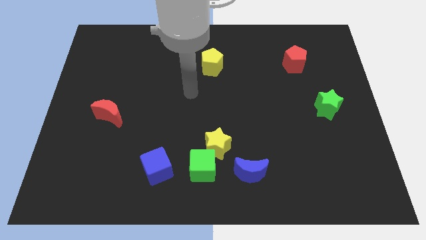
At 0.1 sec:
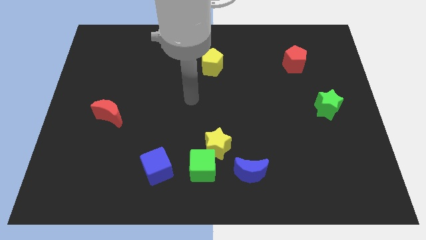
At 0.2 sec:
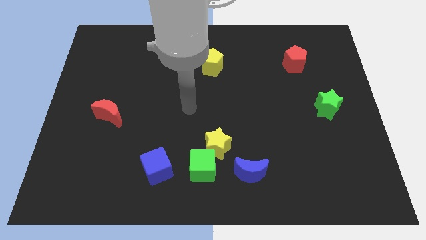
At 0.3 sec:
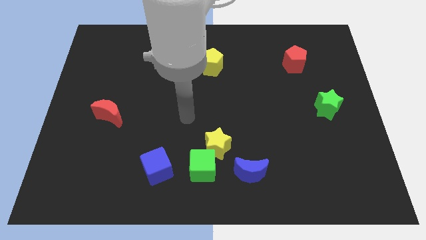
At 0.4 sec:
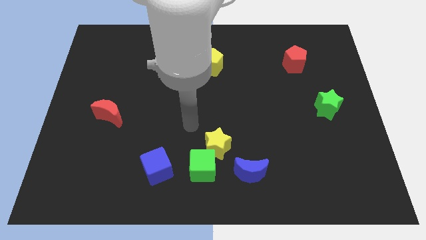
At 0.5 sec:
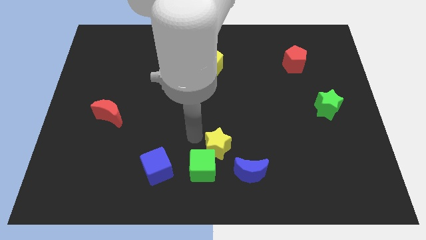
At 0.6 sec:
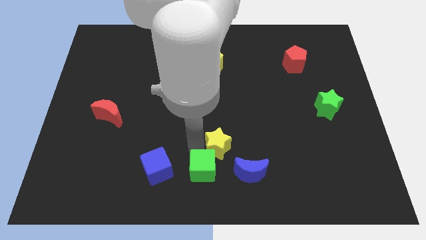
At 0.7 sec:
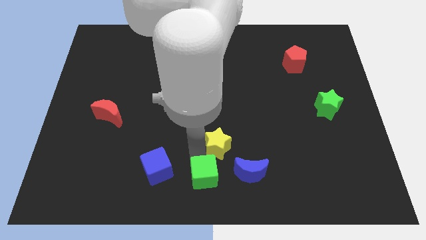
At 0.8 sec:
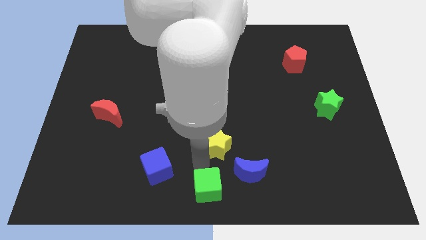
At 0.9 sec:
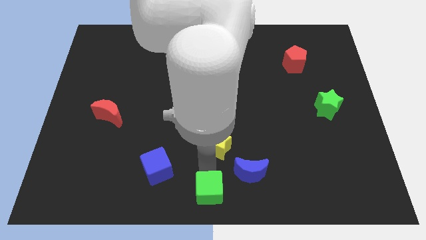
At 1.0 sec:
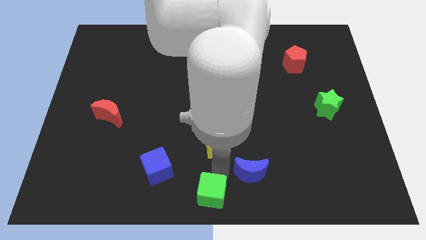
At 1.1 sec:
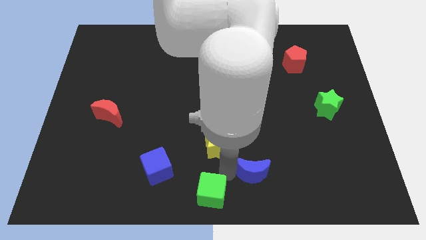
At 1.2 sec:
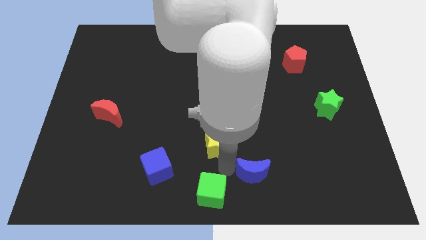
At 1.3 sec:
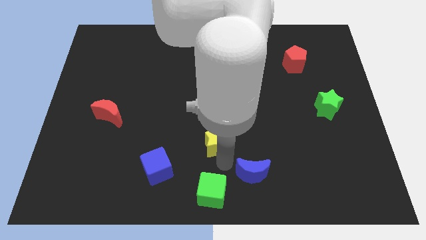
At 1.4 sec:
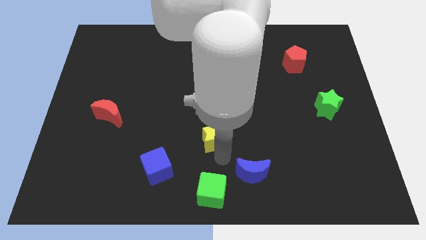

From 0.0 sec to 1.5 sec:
pull the yellow star apart from the green cube and blue moon

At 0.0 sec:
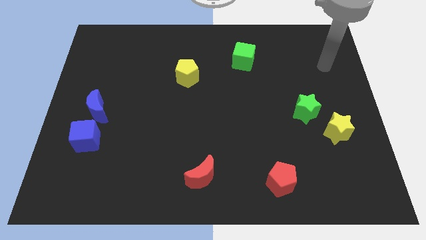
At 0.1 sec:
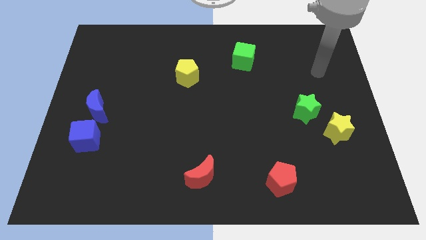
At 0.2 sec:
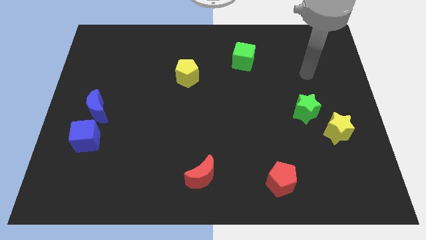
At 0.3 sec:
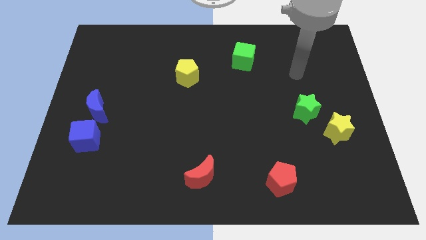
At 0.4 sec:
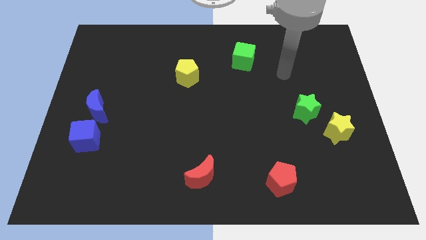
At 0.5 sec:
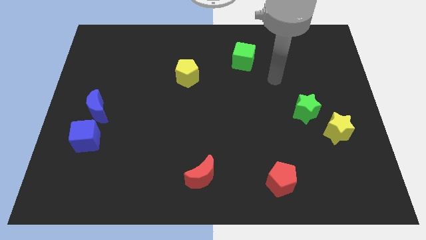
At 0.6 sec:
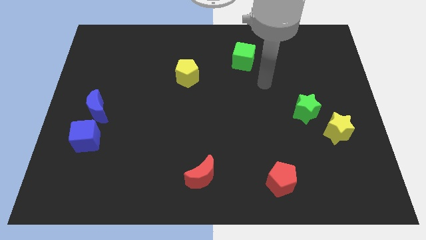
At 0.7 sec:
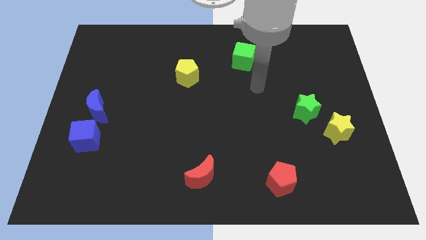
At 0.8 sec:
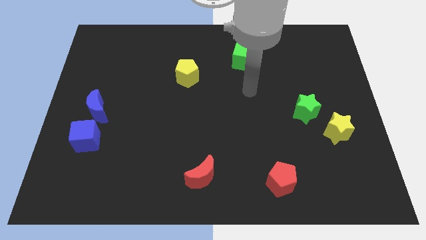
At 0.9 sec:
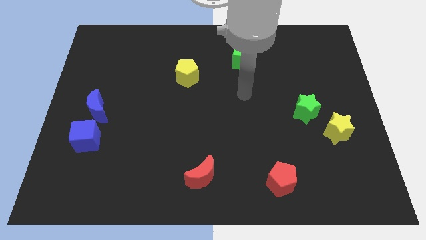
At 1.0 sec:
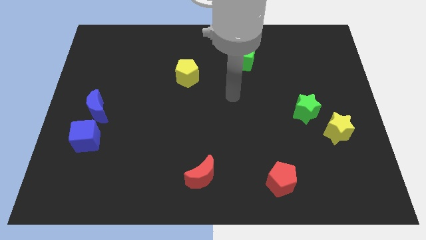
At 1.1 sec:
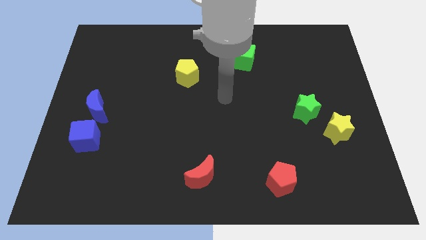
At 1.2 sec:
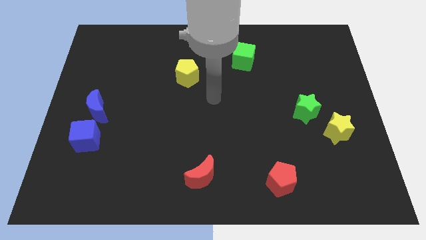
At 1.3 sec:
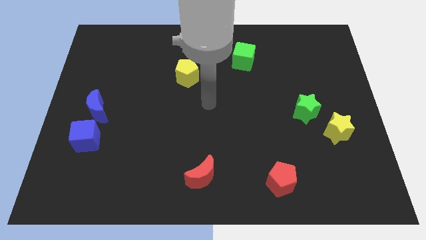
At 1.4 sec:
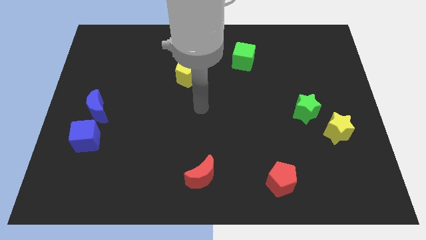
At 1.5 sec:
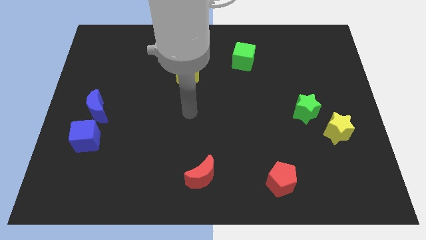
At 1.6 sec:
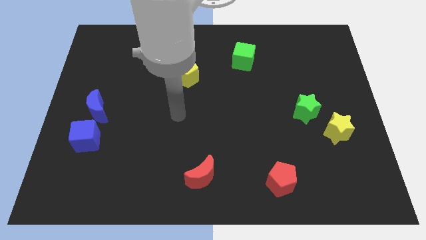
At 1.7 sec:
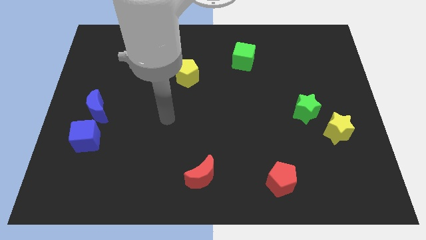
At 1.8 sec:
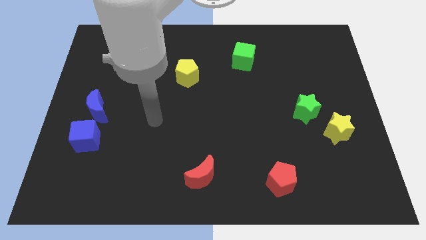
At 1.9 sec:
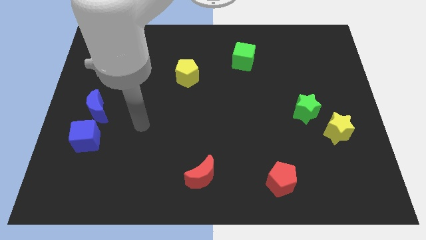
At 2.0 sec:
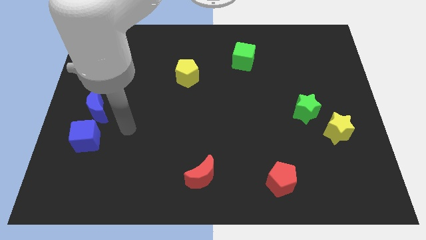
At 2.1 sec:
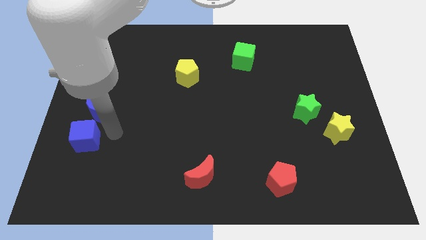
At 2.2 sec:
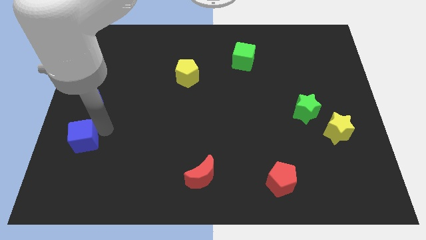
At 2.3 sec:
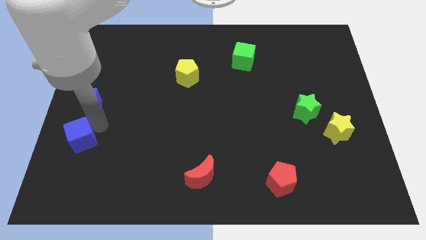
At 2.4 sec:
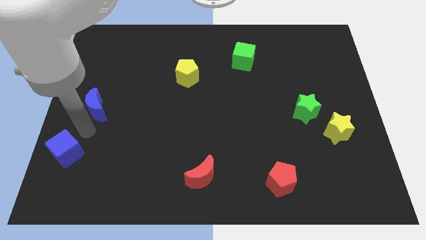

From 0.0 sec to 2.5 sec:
separate the blue moon from the blue cube

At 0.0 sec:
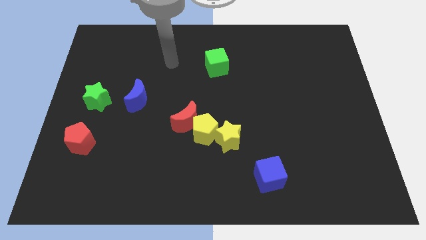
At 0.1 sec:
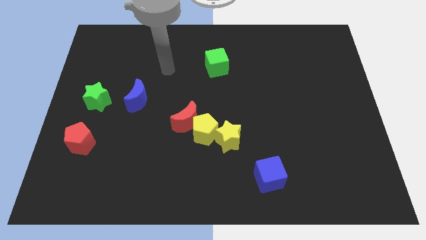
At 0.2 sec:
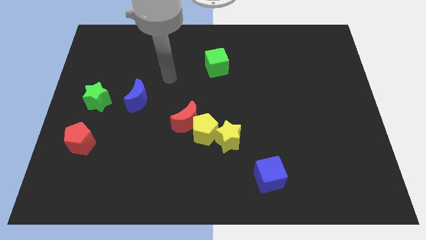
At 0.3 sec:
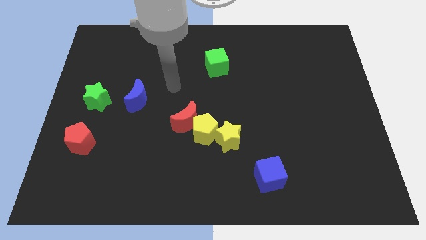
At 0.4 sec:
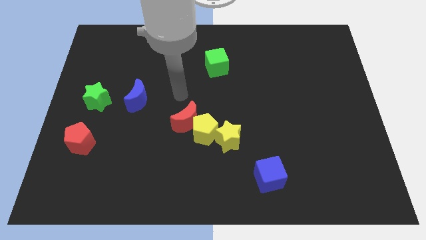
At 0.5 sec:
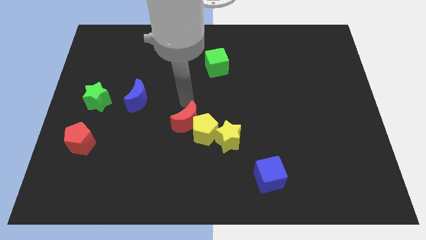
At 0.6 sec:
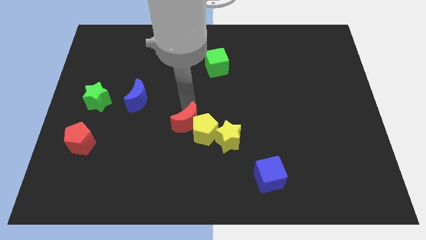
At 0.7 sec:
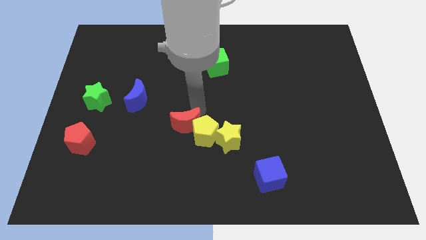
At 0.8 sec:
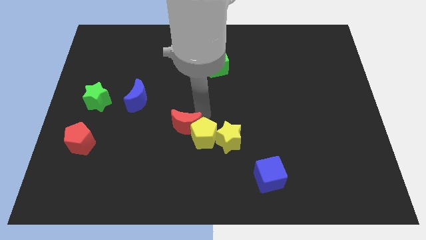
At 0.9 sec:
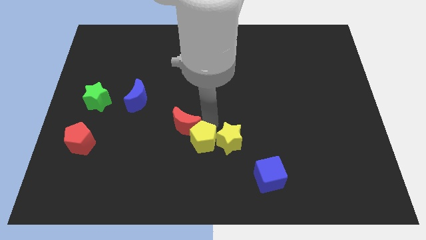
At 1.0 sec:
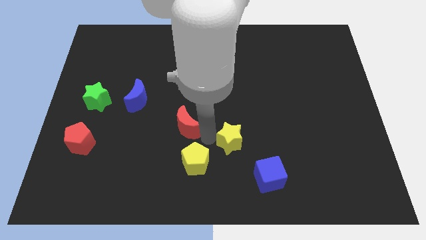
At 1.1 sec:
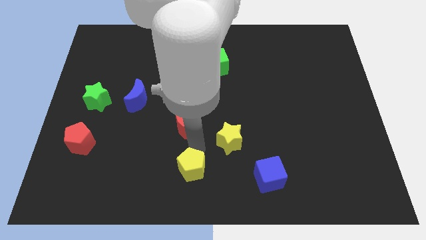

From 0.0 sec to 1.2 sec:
separate the red moon from the yellow pentagon

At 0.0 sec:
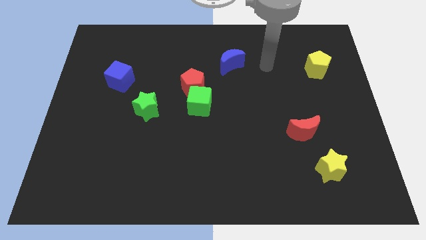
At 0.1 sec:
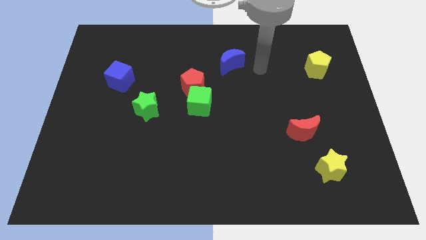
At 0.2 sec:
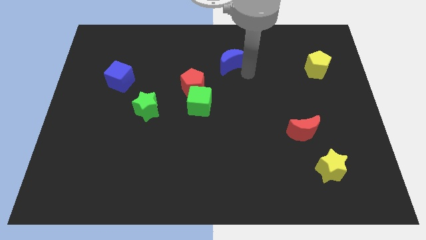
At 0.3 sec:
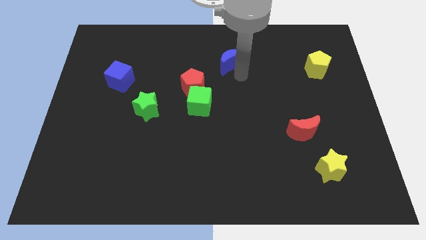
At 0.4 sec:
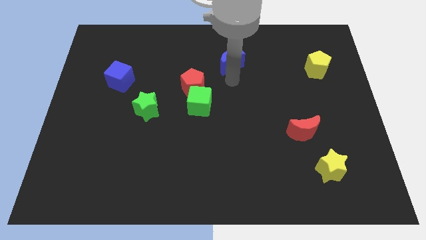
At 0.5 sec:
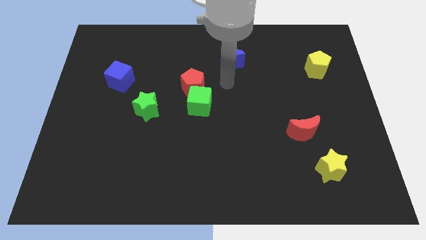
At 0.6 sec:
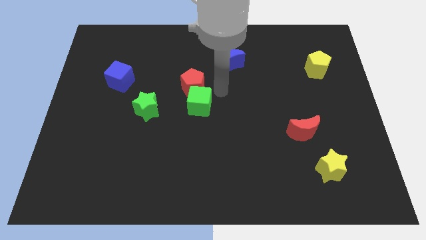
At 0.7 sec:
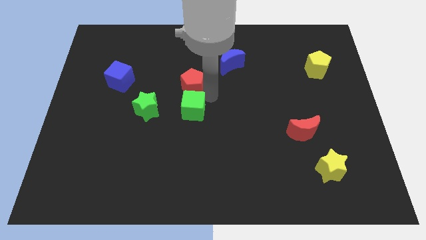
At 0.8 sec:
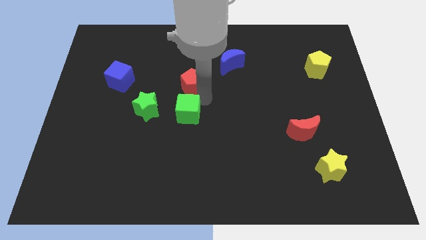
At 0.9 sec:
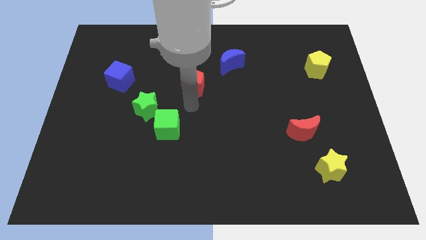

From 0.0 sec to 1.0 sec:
separate the red pentagon from the green cube

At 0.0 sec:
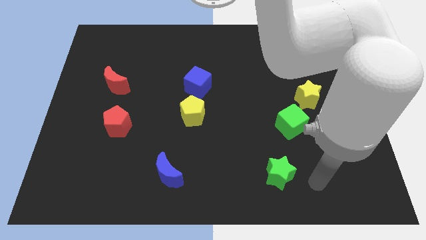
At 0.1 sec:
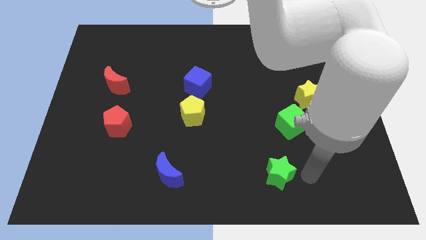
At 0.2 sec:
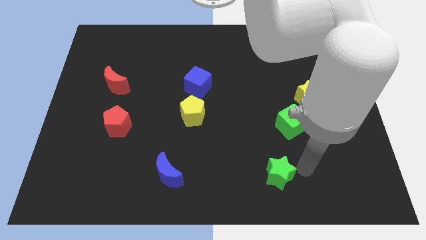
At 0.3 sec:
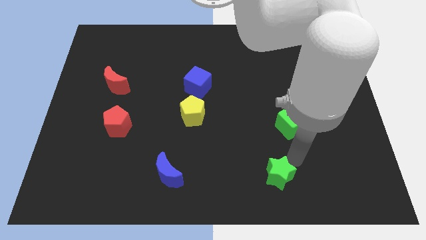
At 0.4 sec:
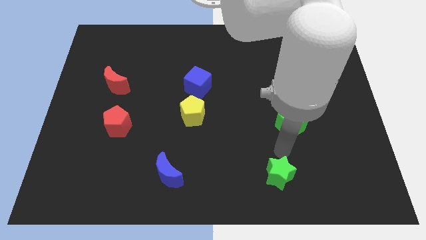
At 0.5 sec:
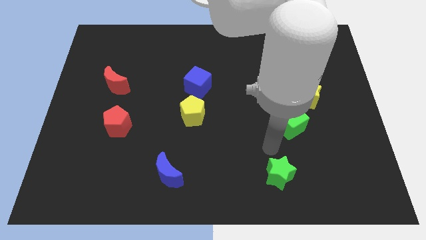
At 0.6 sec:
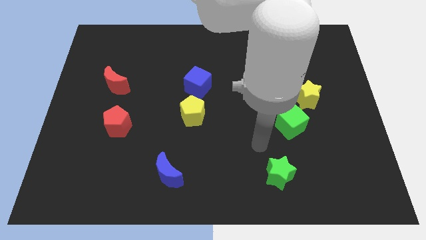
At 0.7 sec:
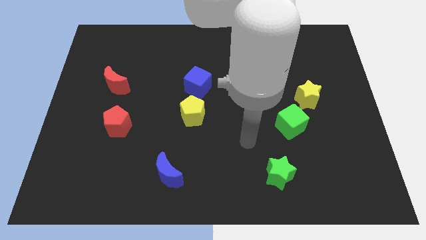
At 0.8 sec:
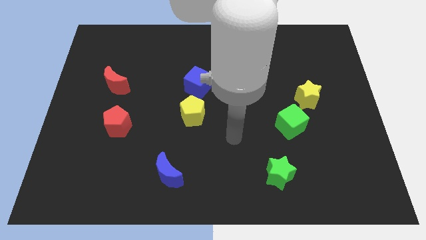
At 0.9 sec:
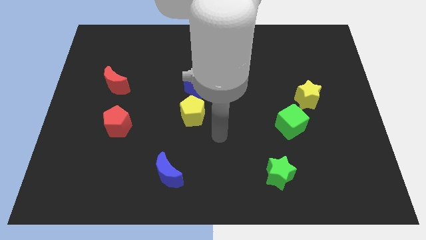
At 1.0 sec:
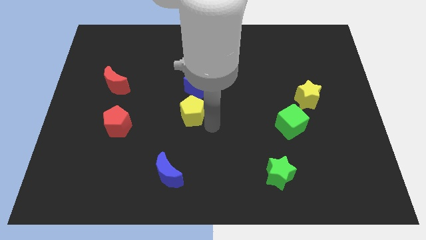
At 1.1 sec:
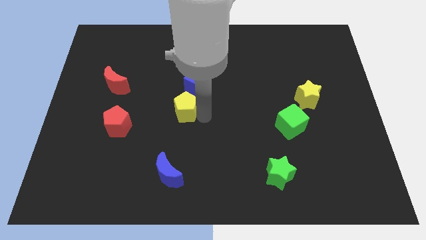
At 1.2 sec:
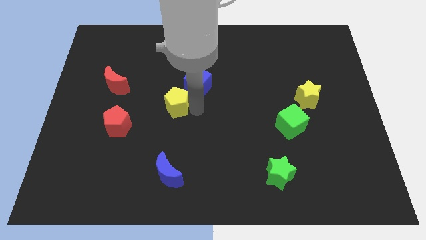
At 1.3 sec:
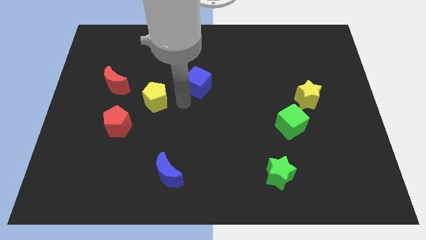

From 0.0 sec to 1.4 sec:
move the blue cube away from the yellow pentagon

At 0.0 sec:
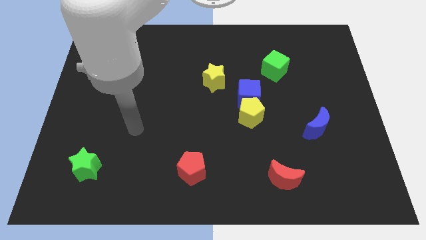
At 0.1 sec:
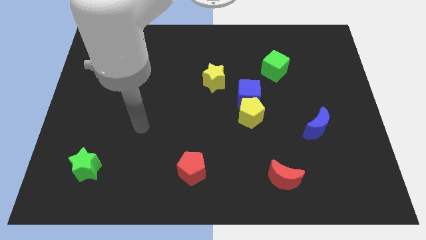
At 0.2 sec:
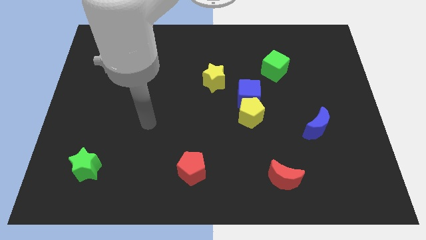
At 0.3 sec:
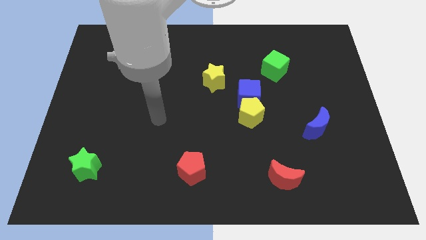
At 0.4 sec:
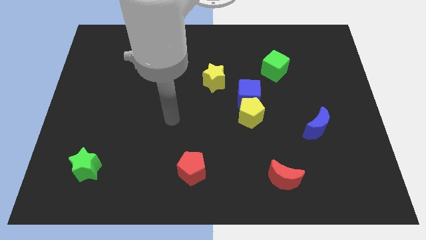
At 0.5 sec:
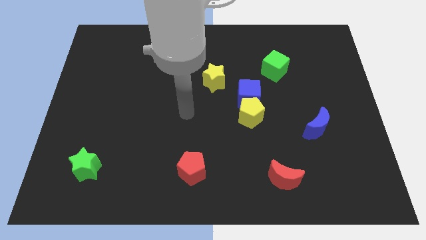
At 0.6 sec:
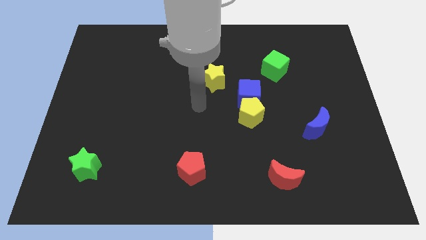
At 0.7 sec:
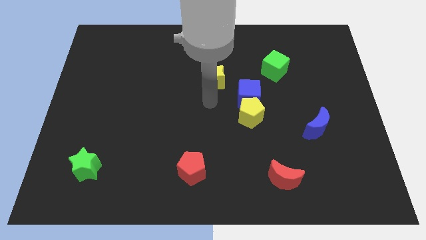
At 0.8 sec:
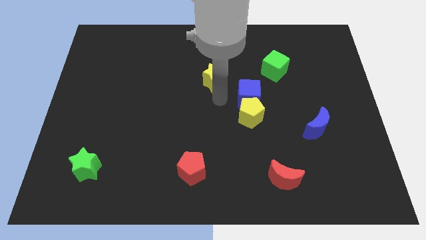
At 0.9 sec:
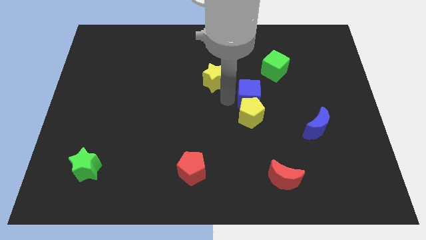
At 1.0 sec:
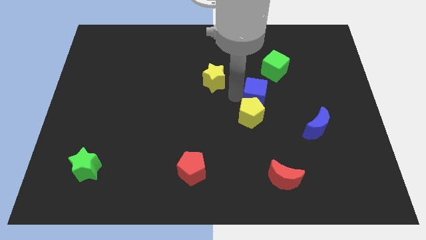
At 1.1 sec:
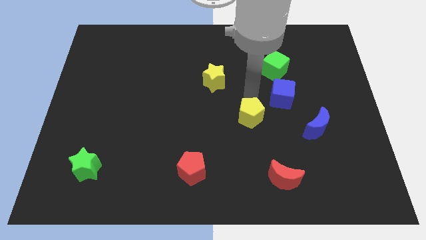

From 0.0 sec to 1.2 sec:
move the yellow pentagon away from the blue cube

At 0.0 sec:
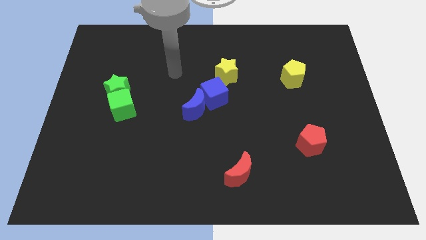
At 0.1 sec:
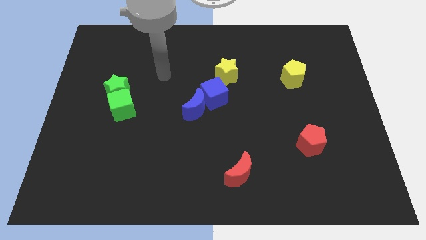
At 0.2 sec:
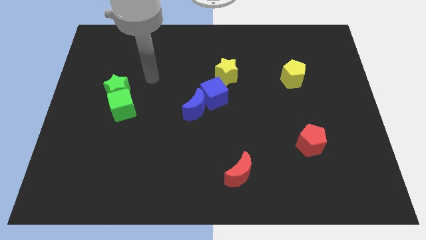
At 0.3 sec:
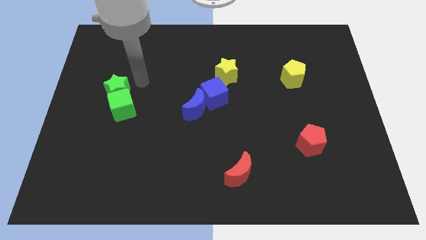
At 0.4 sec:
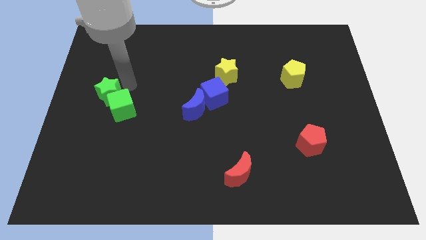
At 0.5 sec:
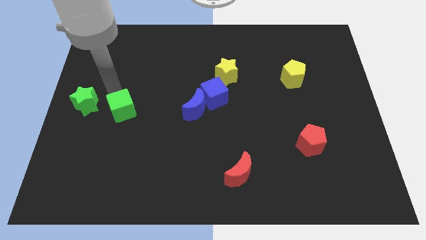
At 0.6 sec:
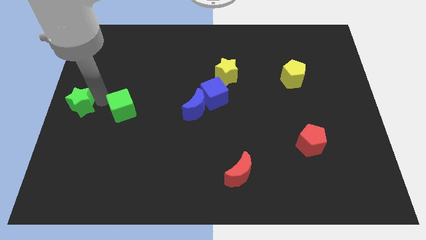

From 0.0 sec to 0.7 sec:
move the green cube away from the green star
